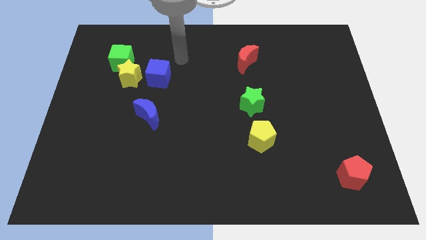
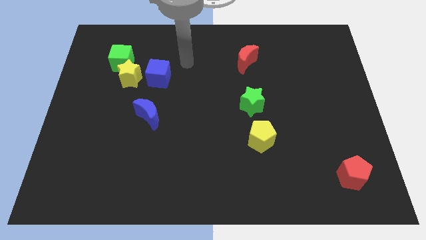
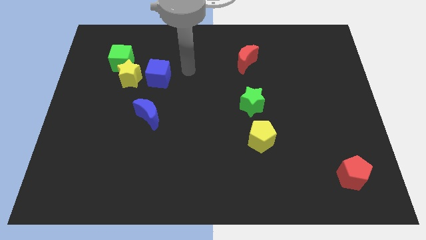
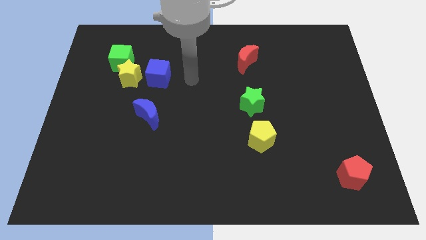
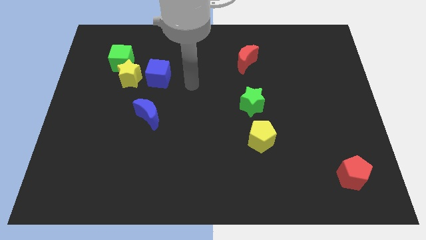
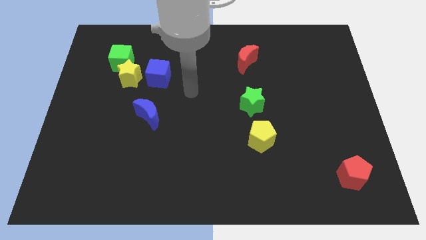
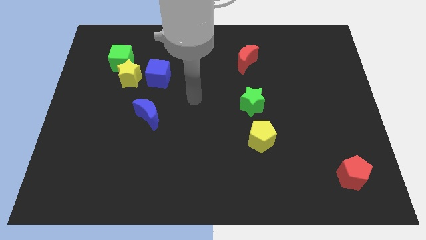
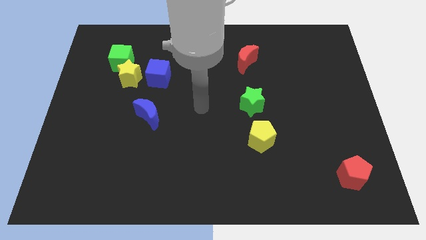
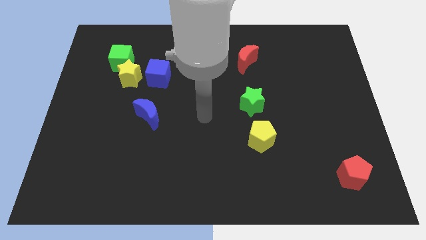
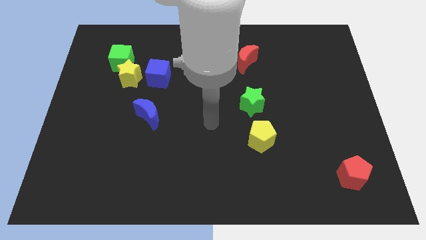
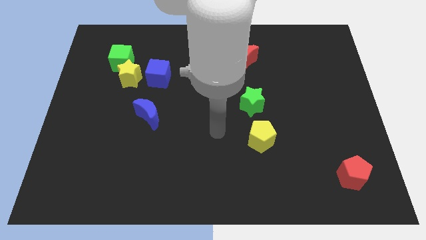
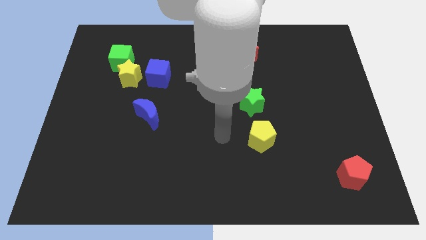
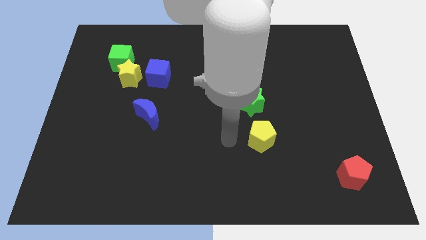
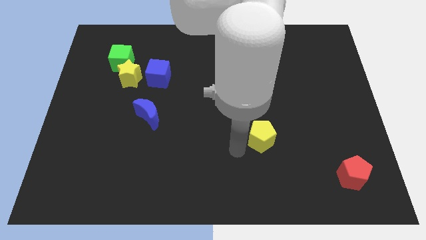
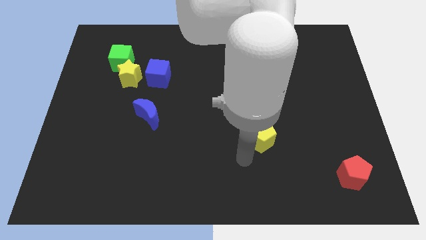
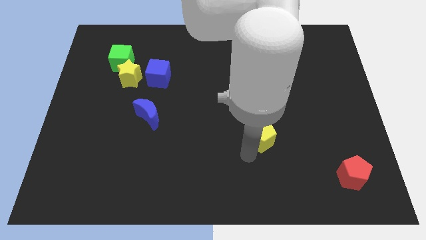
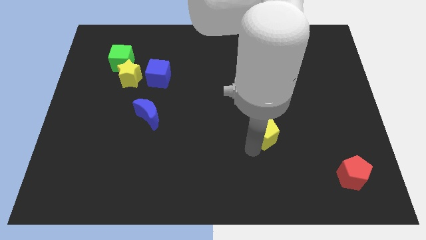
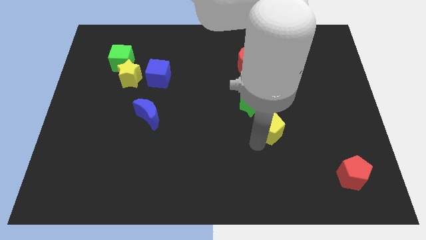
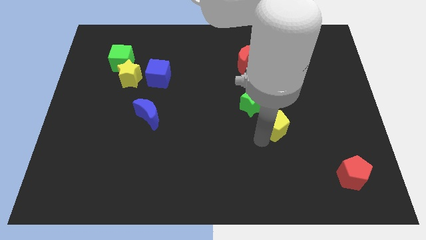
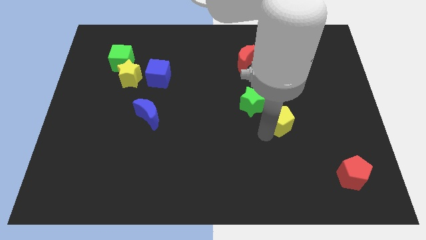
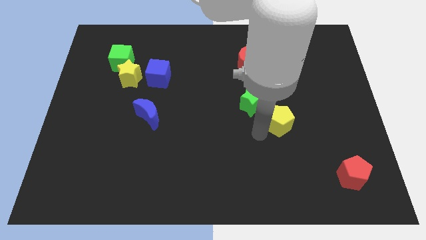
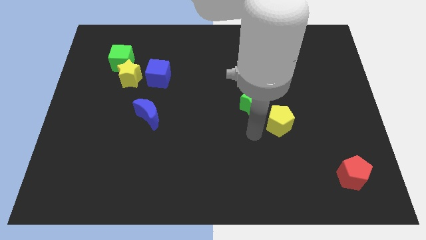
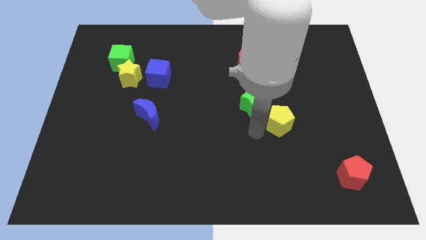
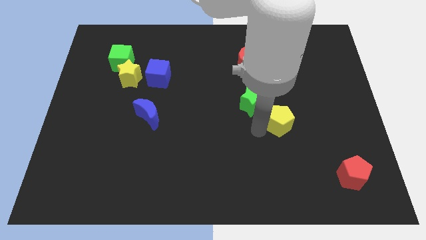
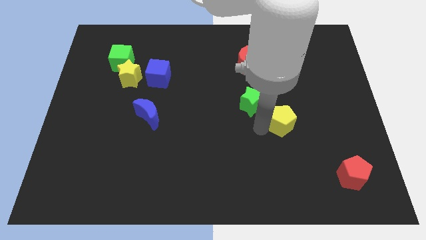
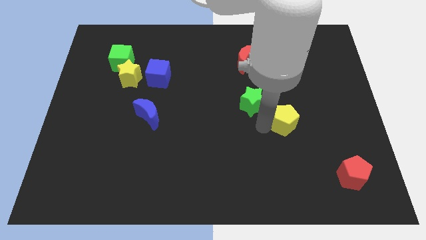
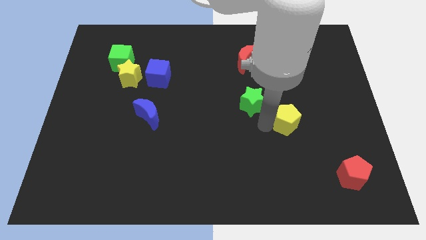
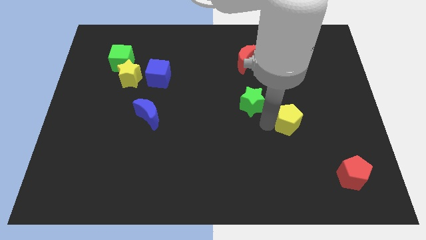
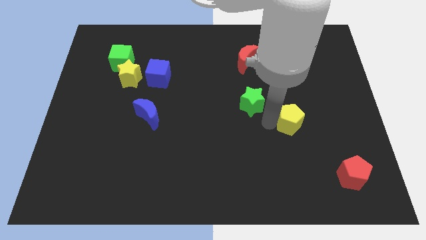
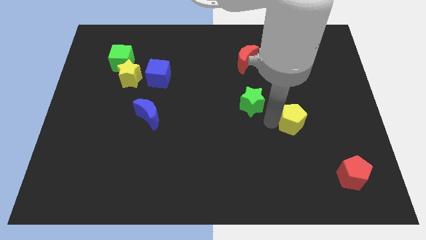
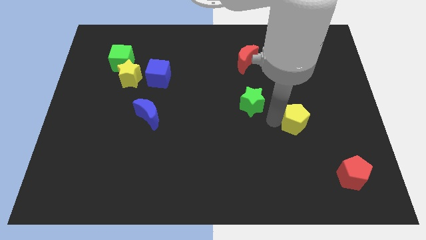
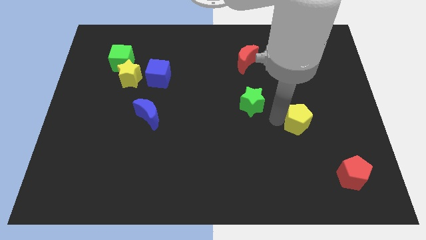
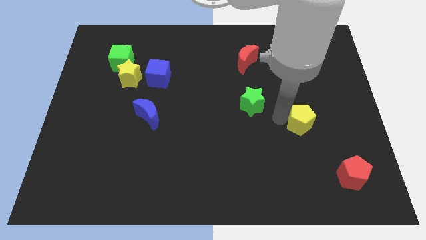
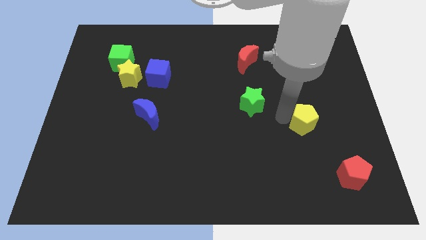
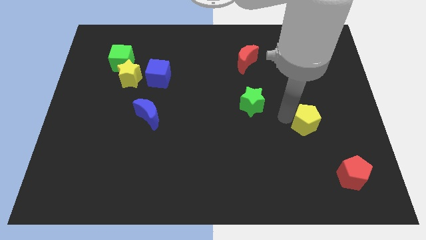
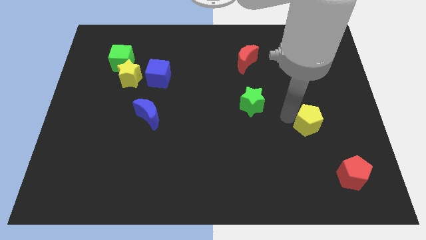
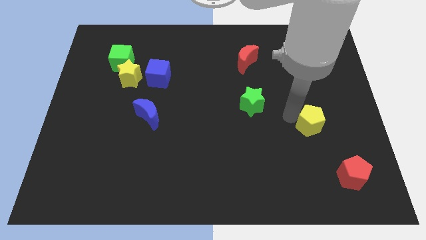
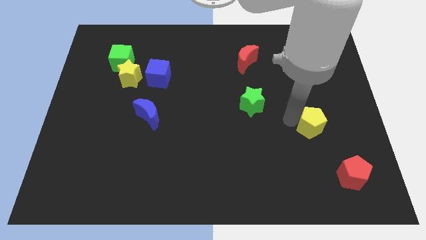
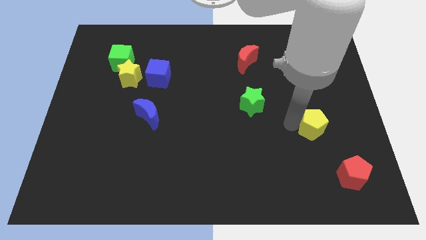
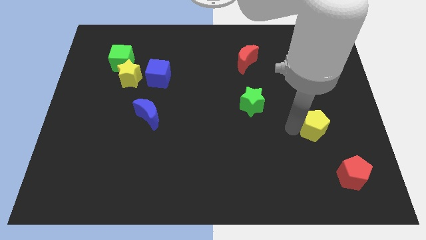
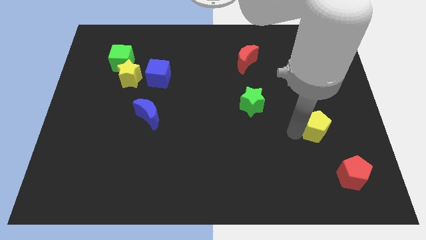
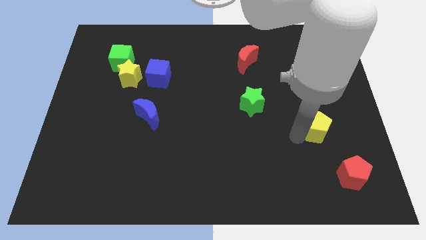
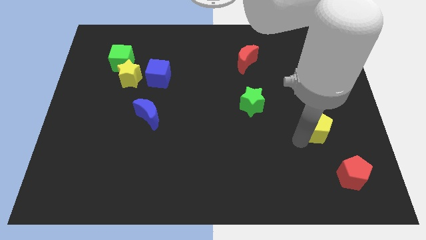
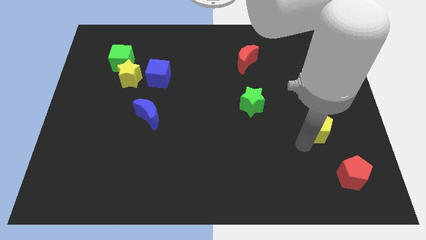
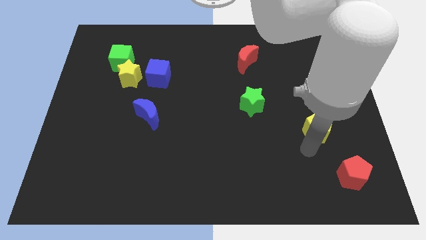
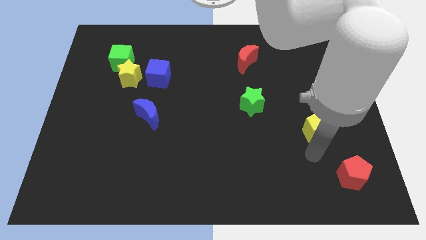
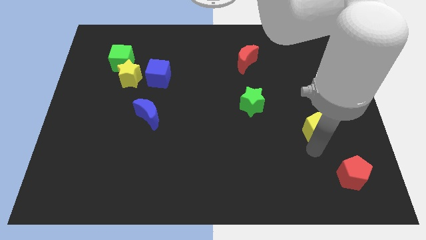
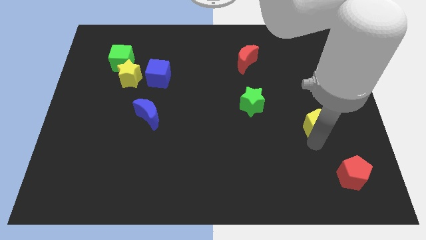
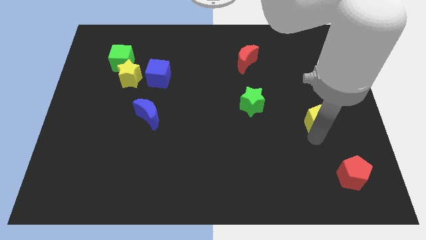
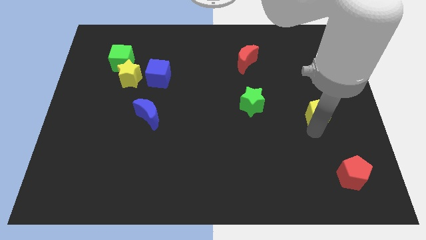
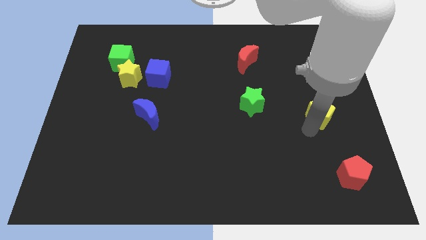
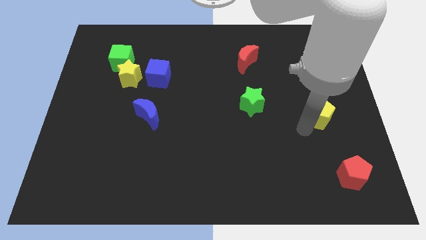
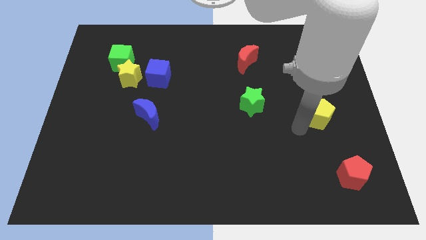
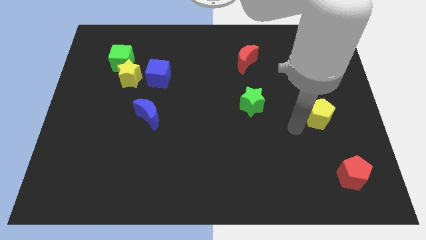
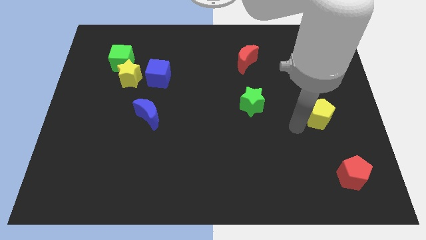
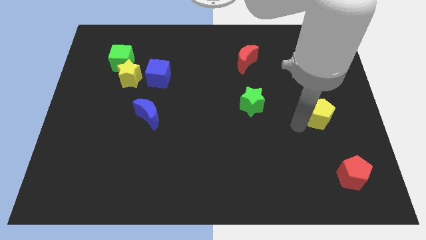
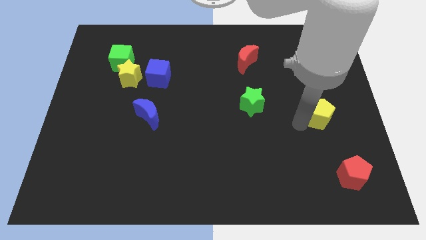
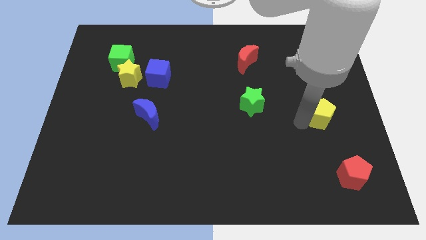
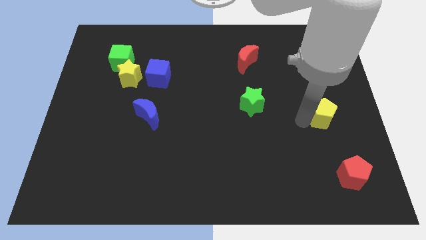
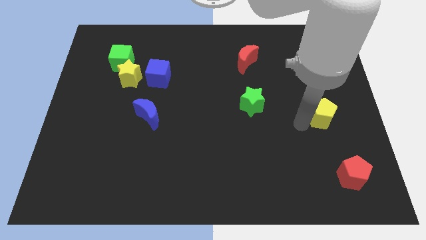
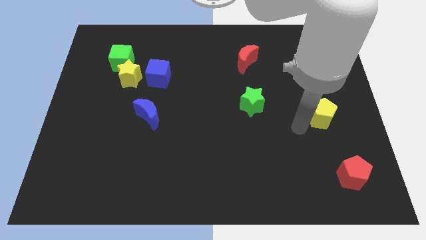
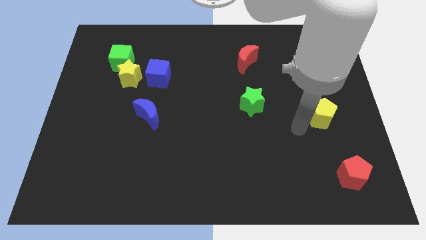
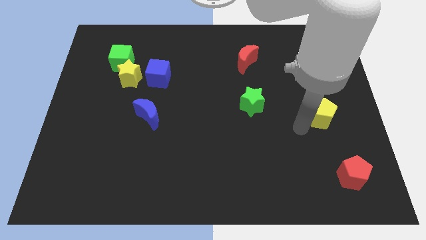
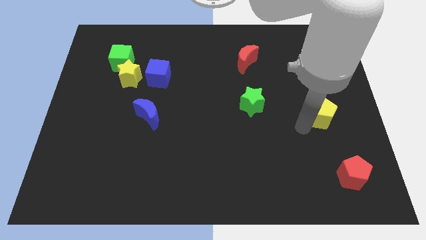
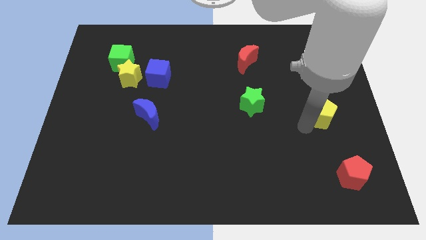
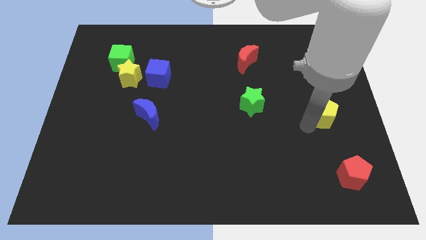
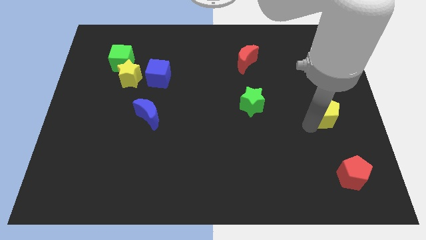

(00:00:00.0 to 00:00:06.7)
push the yellow pentagon to the center right

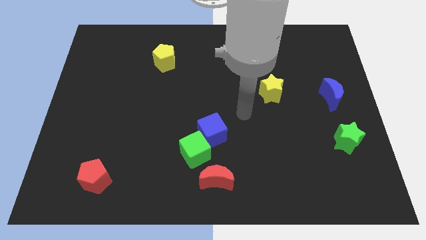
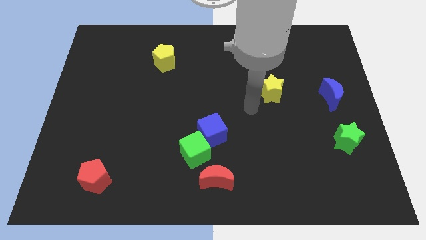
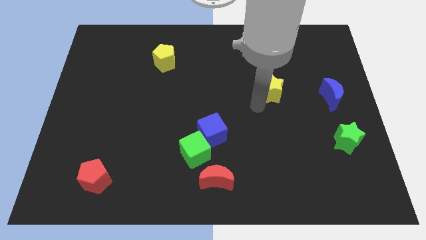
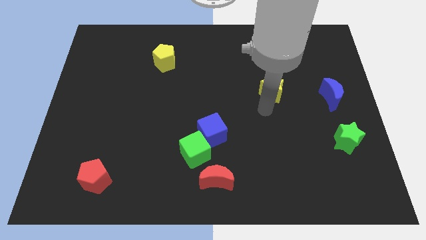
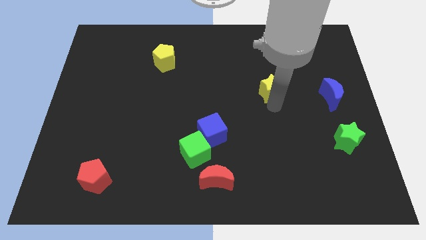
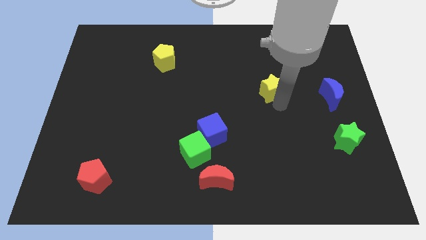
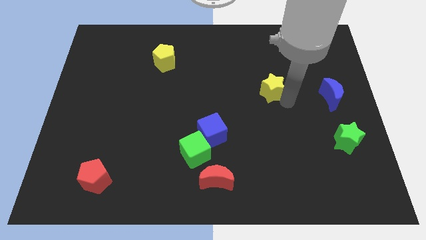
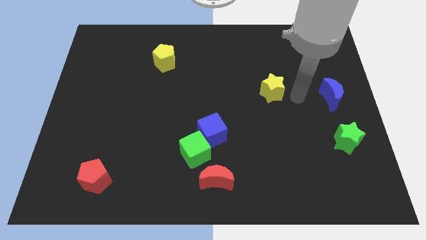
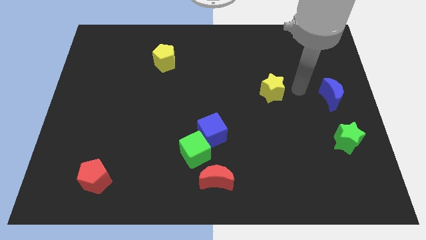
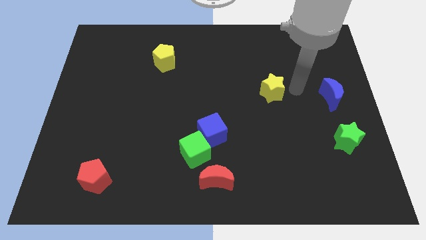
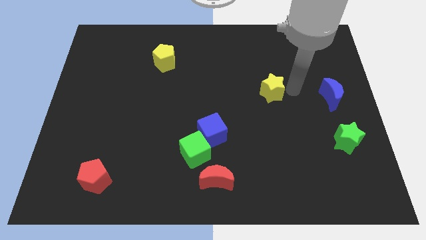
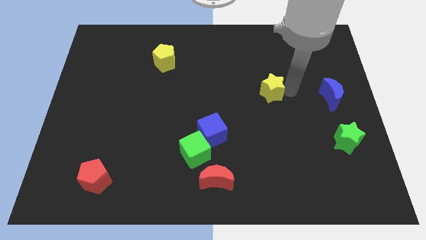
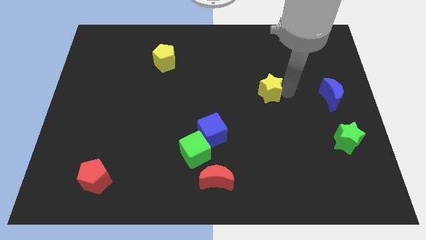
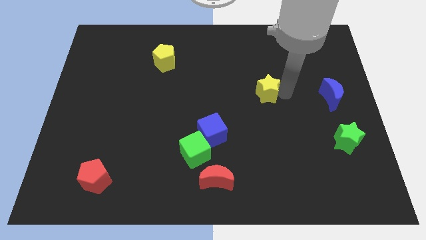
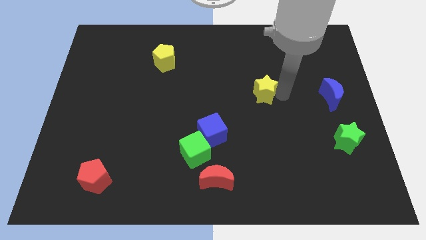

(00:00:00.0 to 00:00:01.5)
slide the yellow star to the center
